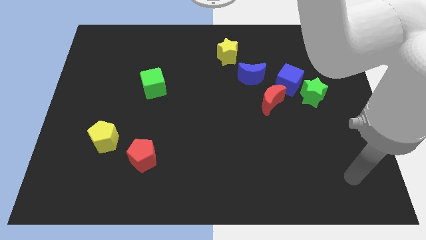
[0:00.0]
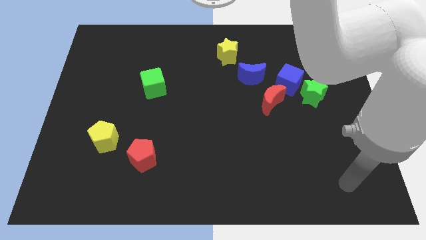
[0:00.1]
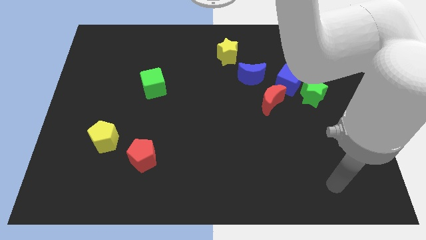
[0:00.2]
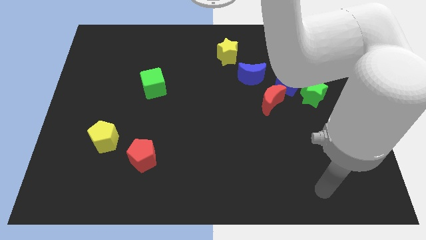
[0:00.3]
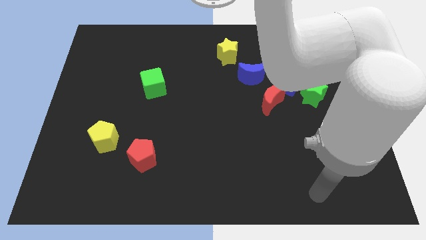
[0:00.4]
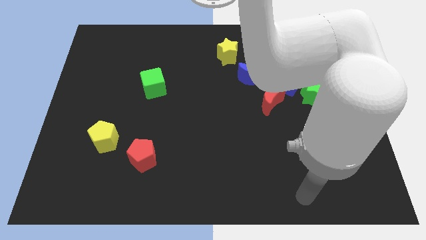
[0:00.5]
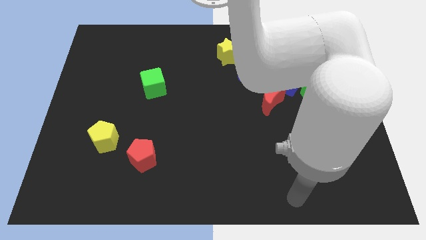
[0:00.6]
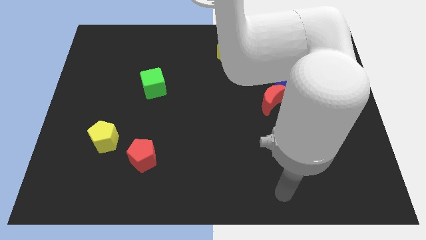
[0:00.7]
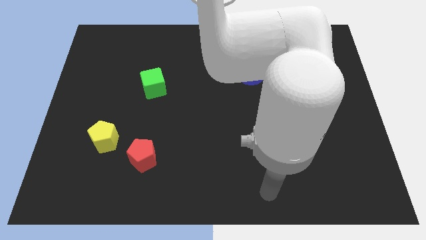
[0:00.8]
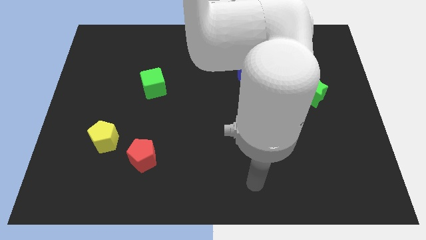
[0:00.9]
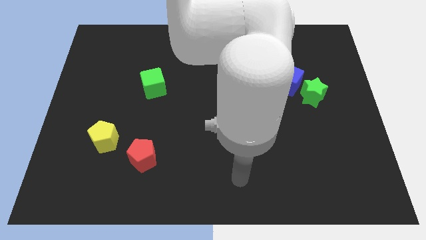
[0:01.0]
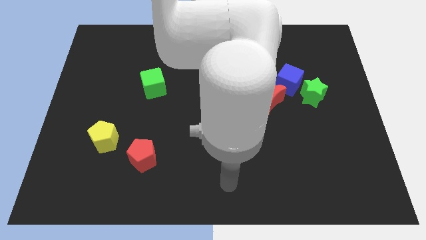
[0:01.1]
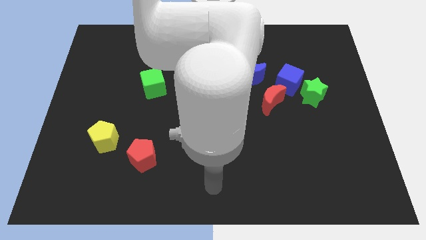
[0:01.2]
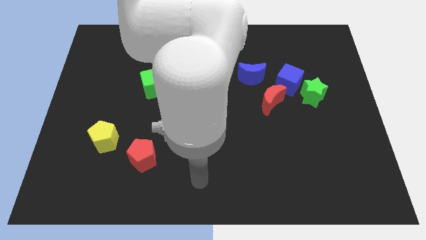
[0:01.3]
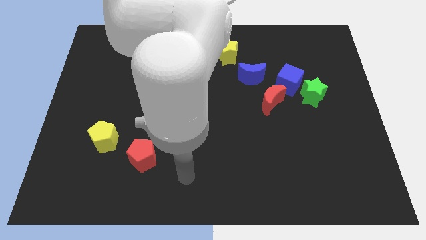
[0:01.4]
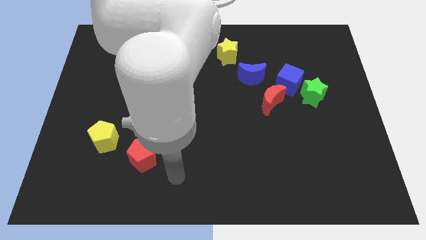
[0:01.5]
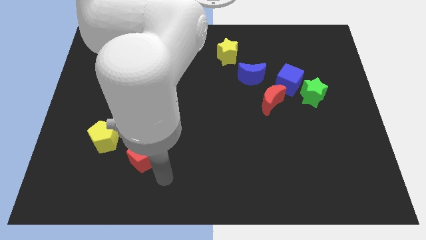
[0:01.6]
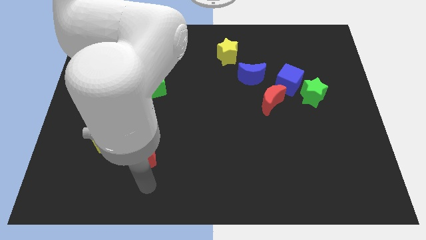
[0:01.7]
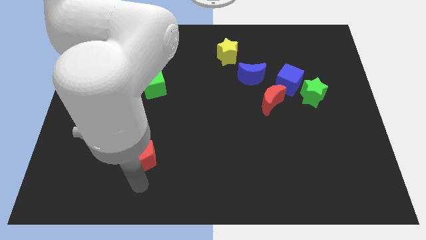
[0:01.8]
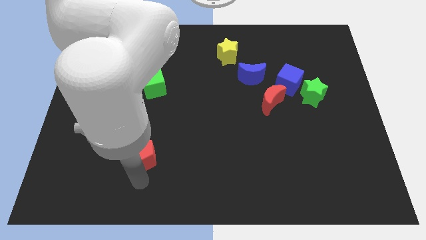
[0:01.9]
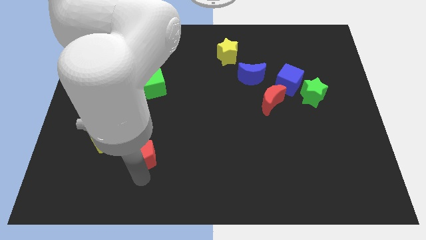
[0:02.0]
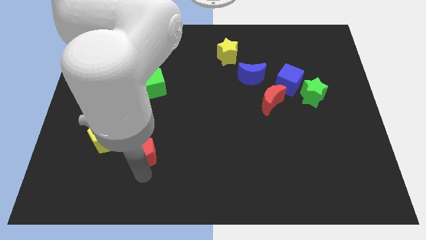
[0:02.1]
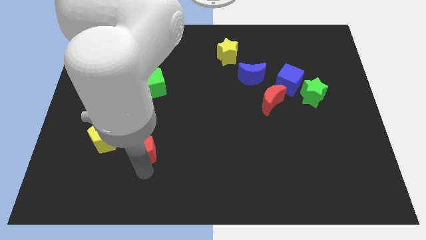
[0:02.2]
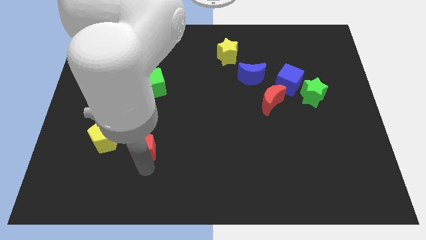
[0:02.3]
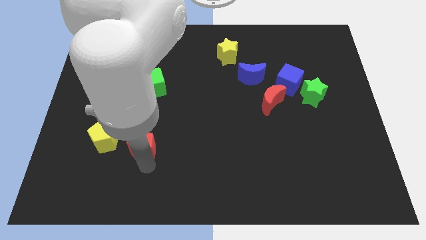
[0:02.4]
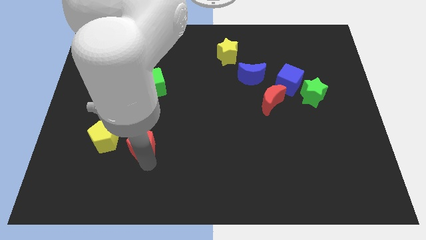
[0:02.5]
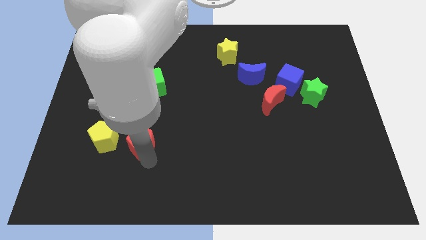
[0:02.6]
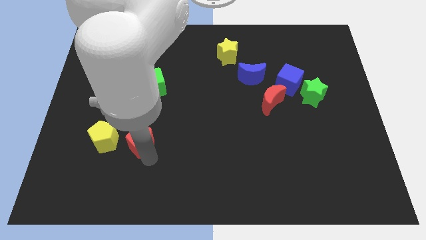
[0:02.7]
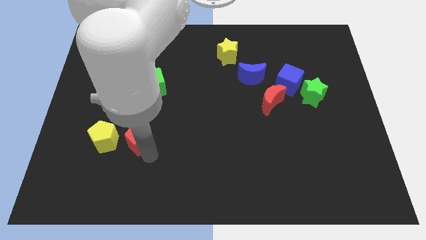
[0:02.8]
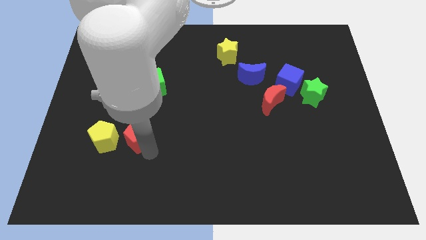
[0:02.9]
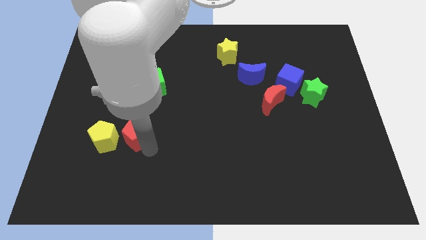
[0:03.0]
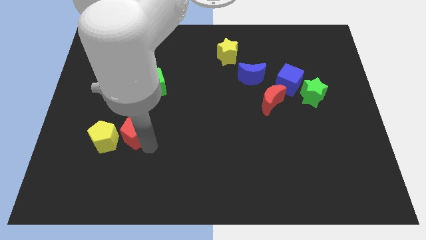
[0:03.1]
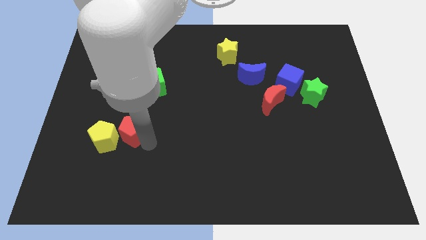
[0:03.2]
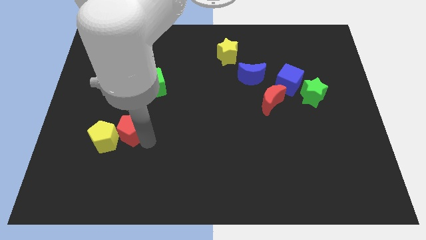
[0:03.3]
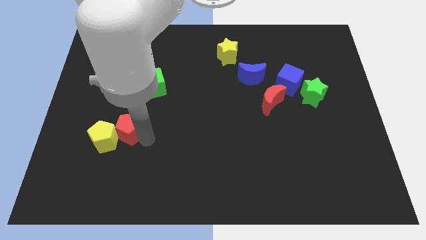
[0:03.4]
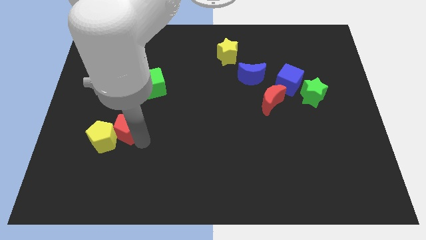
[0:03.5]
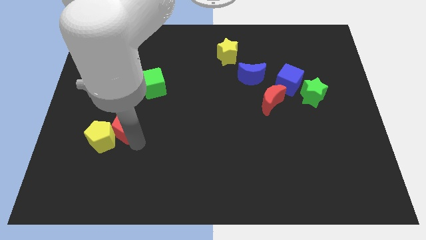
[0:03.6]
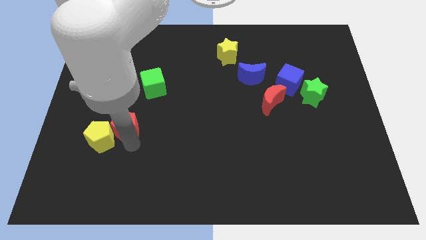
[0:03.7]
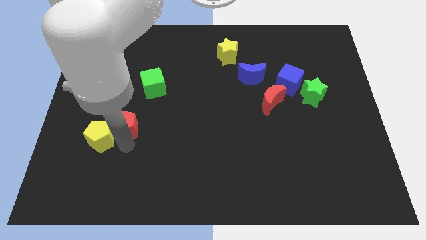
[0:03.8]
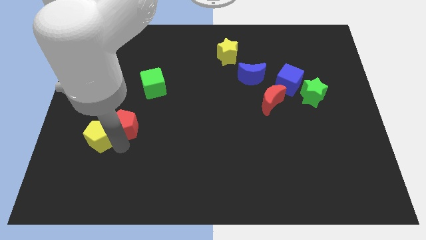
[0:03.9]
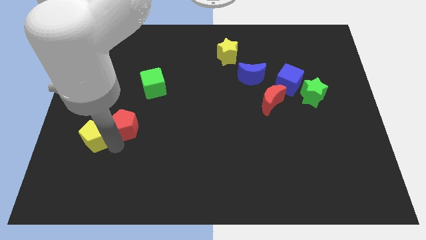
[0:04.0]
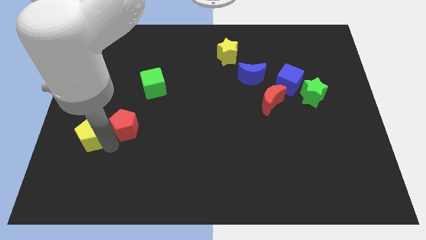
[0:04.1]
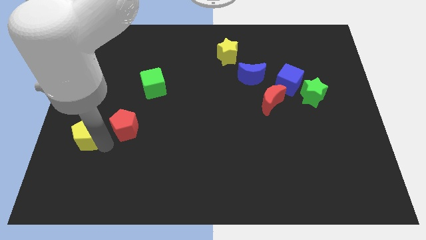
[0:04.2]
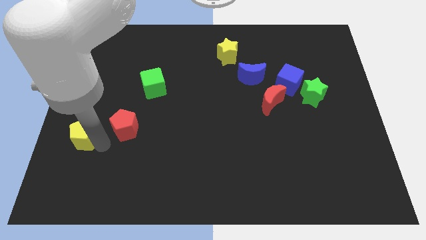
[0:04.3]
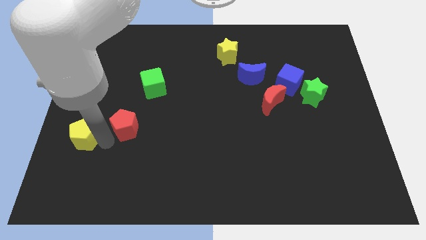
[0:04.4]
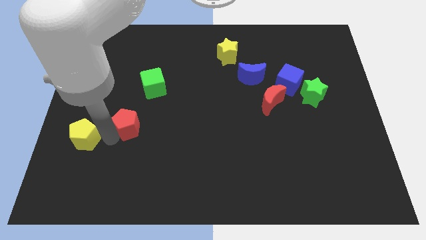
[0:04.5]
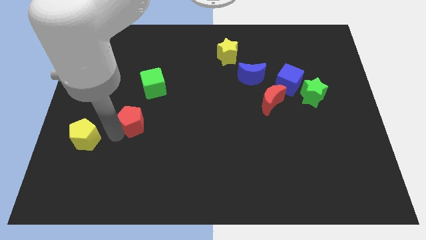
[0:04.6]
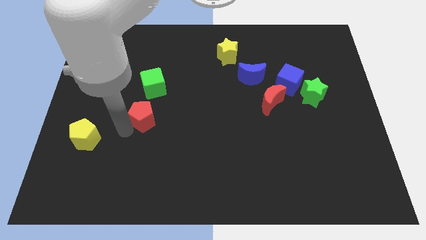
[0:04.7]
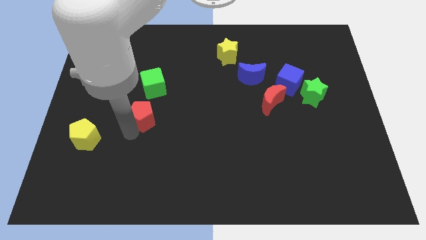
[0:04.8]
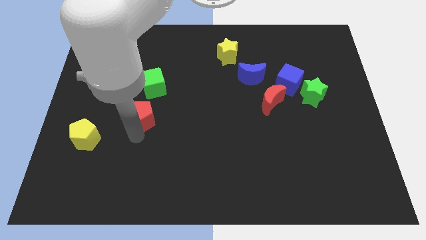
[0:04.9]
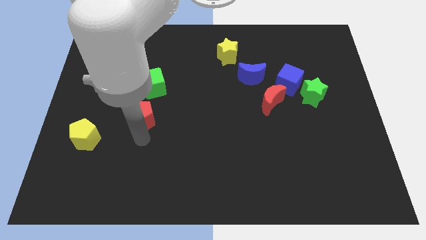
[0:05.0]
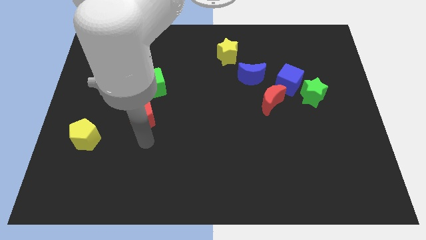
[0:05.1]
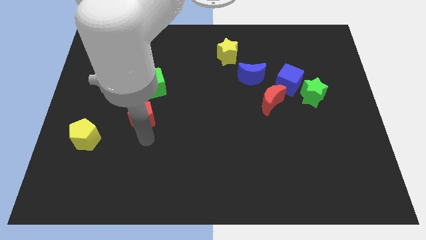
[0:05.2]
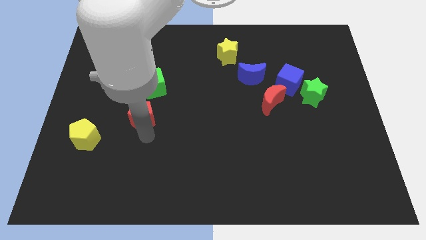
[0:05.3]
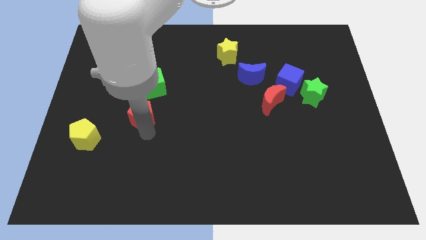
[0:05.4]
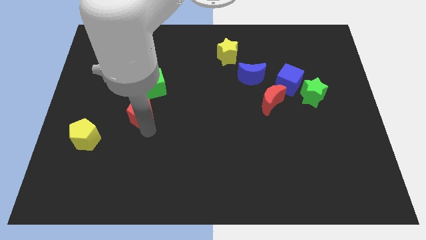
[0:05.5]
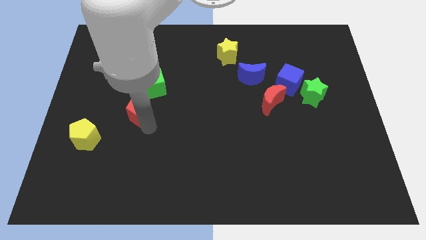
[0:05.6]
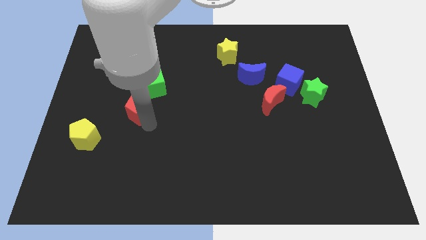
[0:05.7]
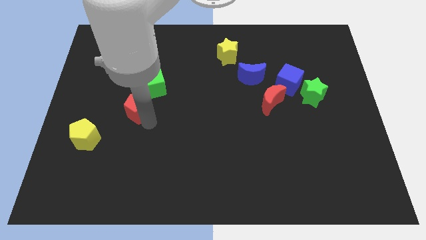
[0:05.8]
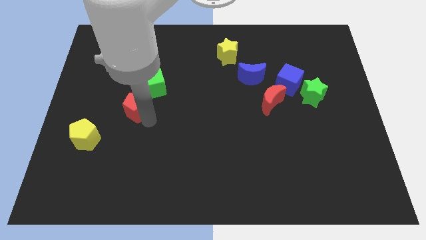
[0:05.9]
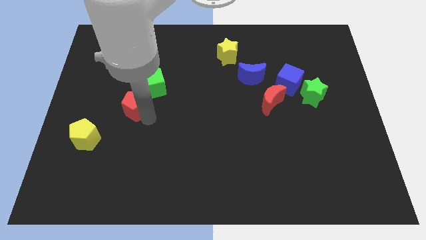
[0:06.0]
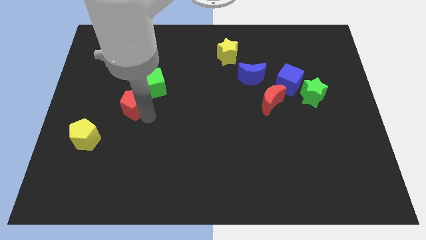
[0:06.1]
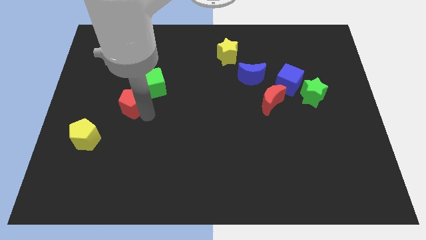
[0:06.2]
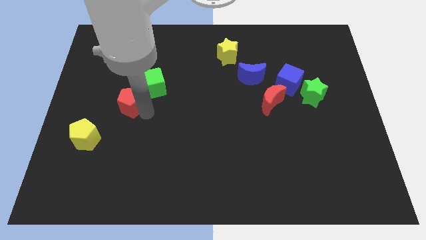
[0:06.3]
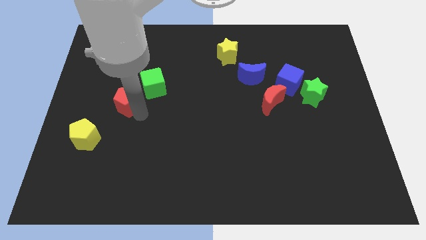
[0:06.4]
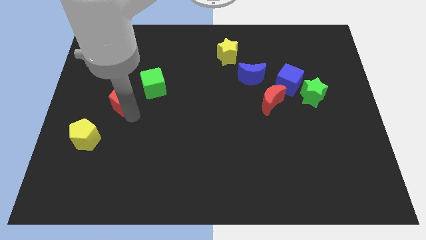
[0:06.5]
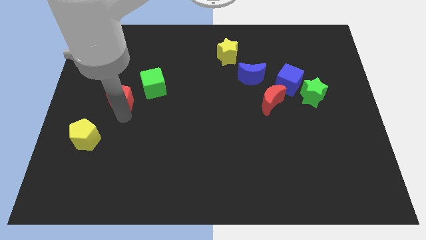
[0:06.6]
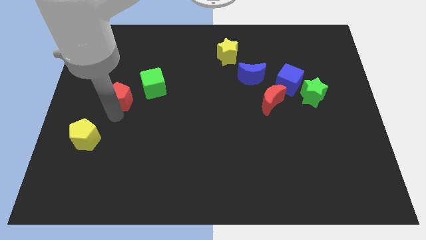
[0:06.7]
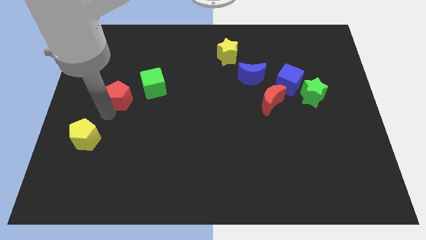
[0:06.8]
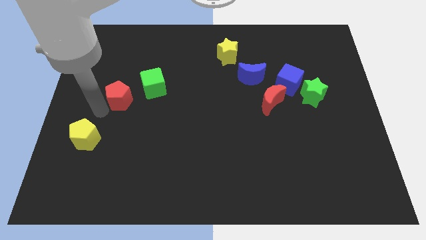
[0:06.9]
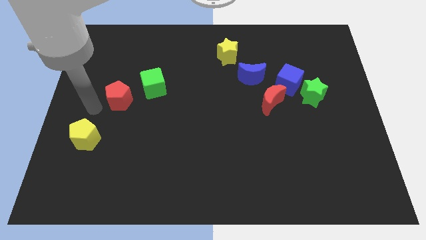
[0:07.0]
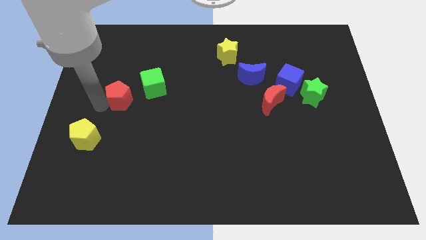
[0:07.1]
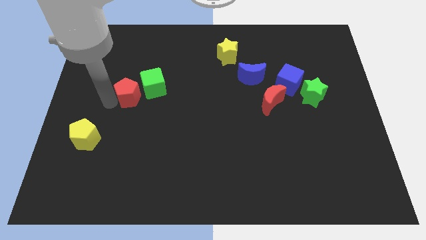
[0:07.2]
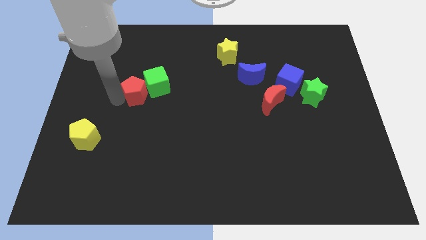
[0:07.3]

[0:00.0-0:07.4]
put the red pentagon close to the green cube
